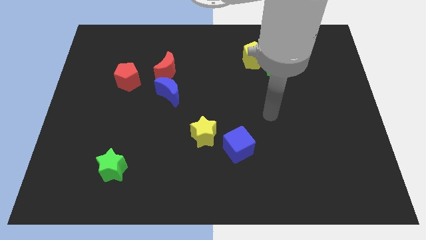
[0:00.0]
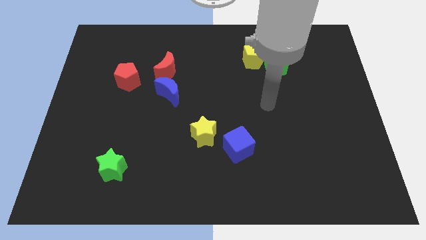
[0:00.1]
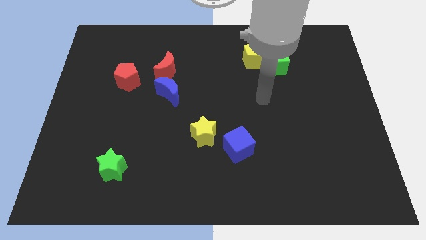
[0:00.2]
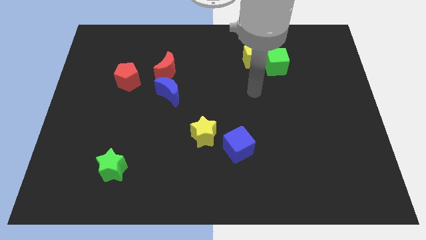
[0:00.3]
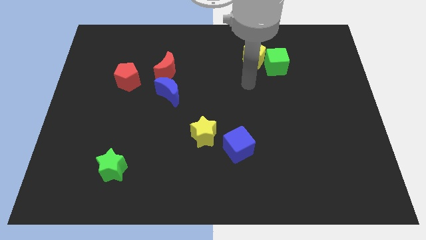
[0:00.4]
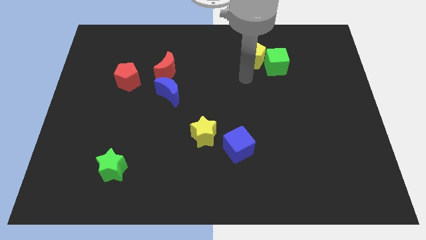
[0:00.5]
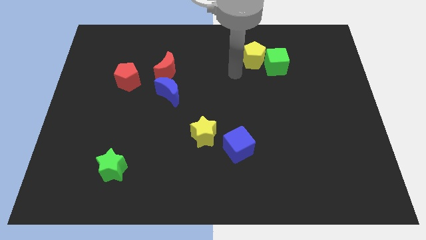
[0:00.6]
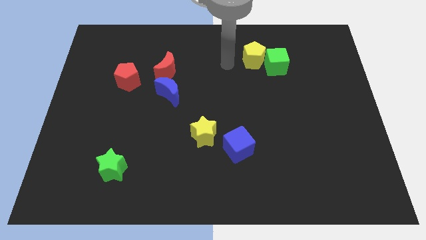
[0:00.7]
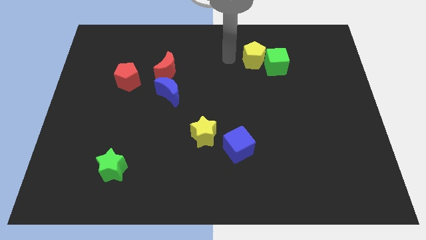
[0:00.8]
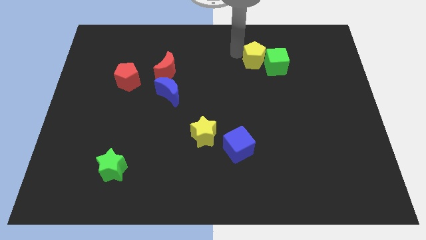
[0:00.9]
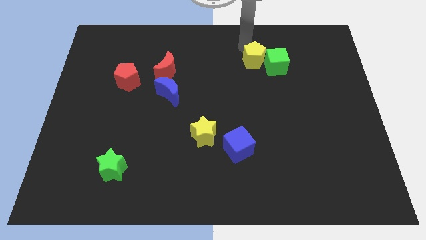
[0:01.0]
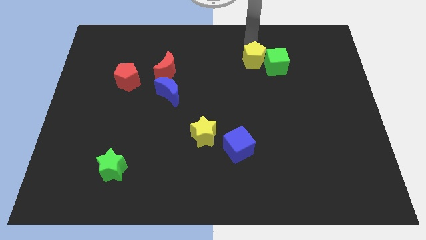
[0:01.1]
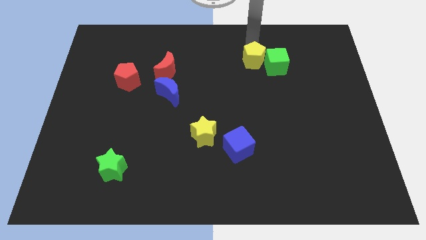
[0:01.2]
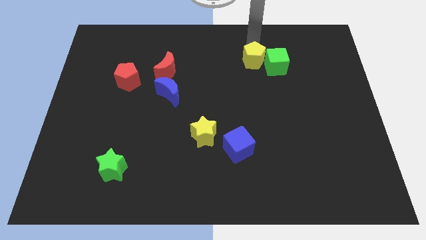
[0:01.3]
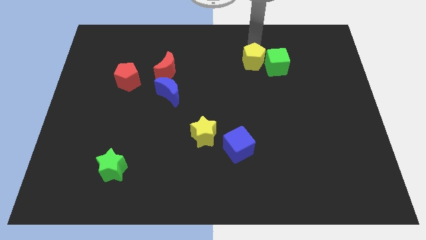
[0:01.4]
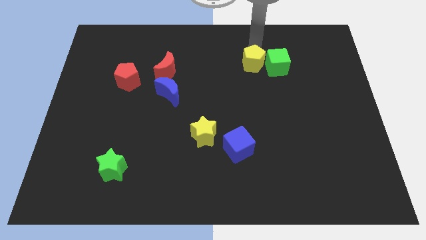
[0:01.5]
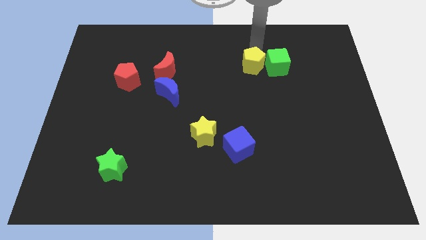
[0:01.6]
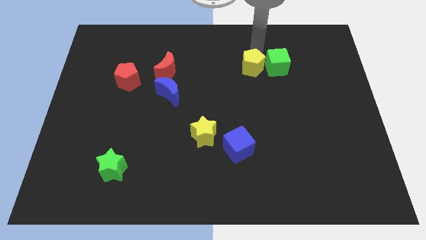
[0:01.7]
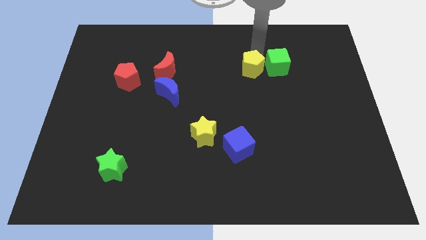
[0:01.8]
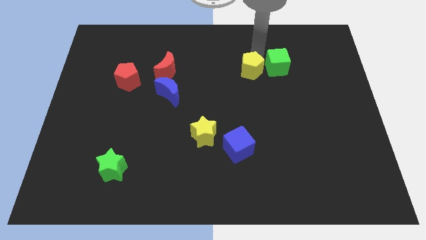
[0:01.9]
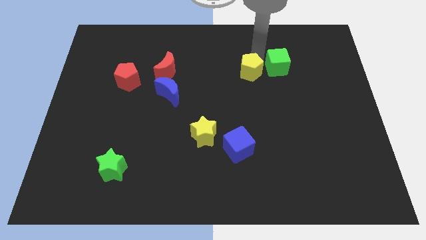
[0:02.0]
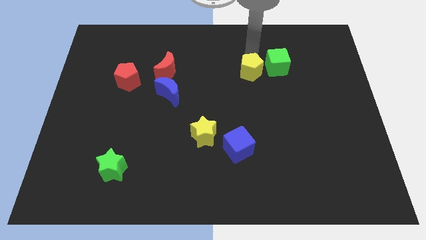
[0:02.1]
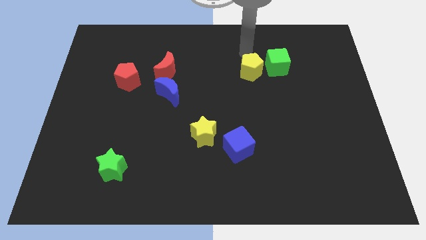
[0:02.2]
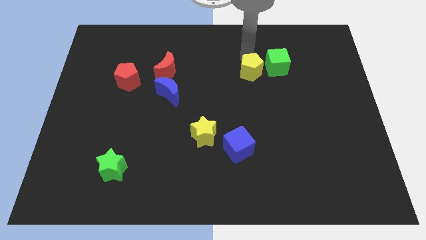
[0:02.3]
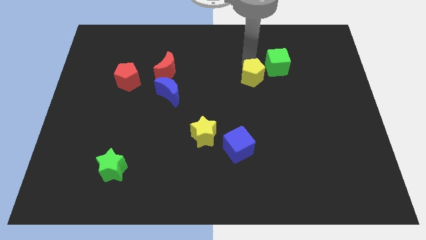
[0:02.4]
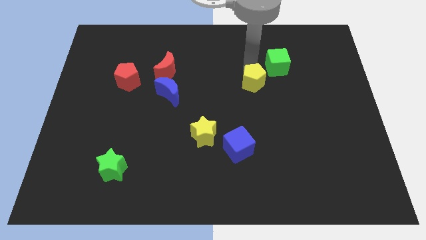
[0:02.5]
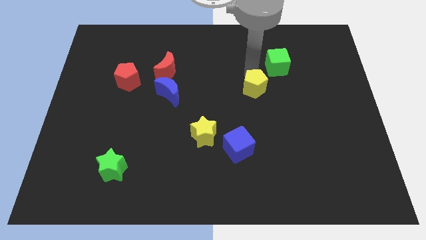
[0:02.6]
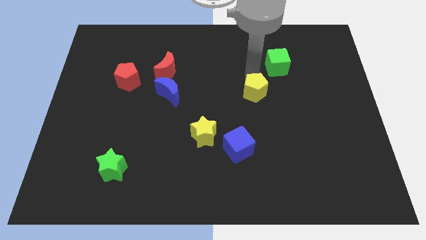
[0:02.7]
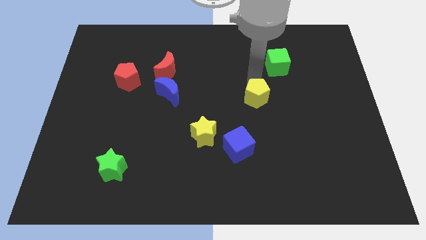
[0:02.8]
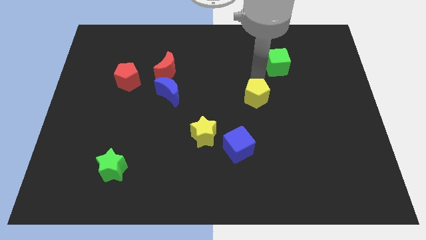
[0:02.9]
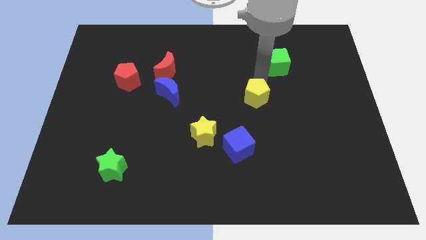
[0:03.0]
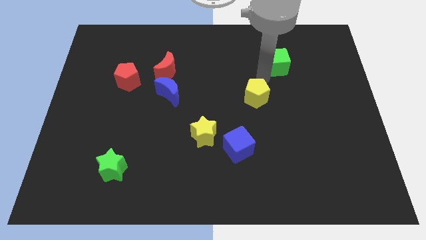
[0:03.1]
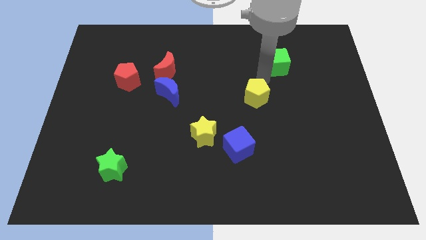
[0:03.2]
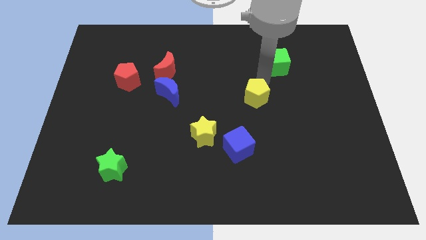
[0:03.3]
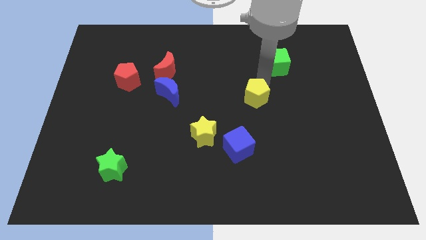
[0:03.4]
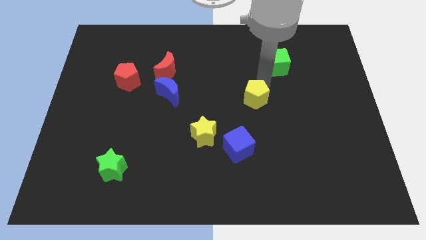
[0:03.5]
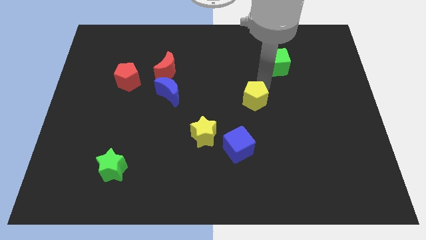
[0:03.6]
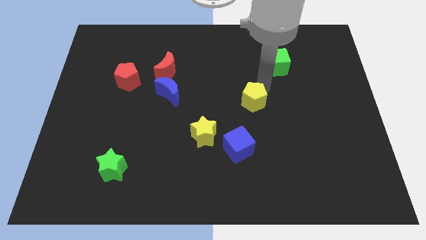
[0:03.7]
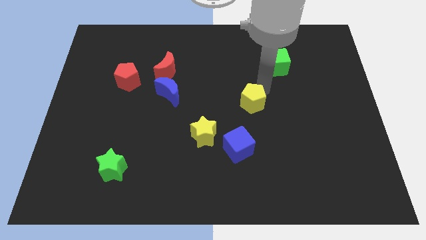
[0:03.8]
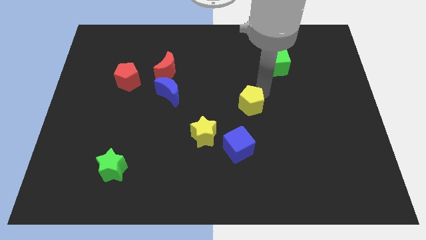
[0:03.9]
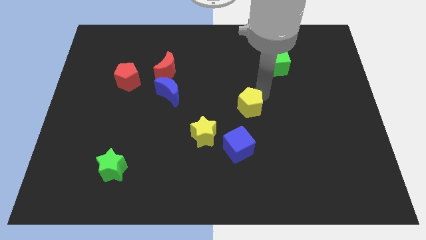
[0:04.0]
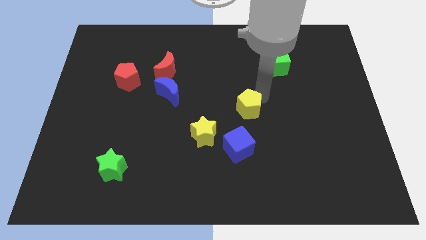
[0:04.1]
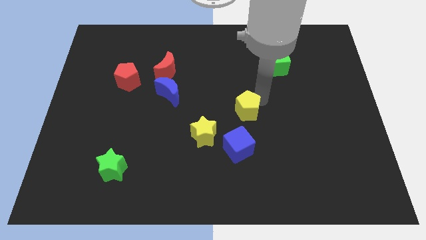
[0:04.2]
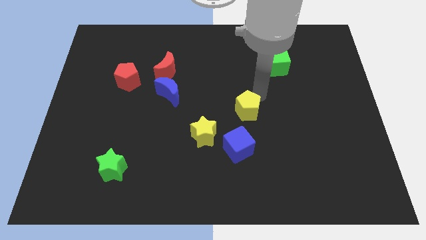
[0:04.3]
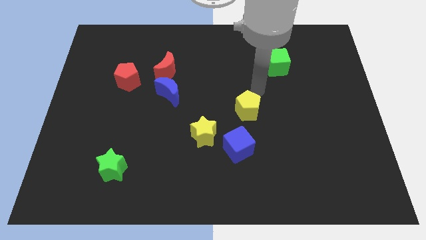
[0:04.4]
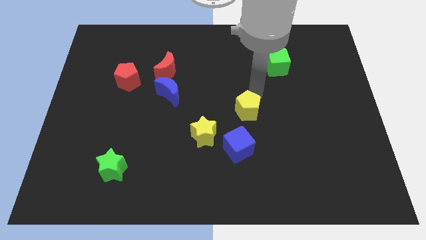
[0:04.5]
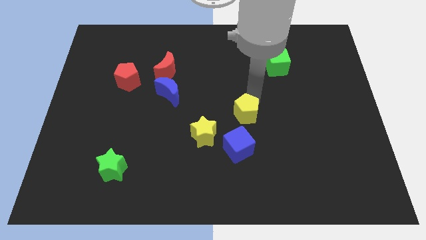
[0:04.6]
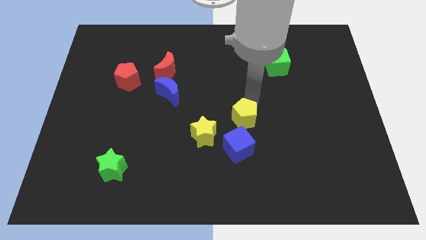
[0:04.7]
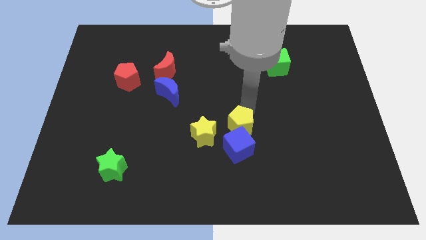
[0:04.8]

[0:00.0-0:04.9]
slide the yellow pentagon close to the blue cube

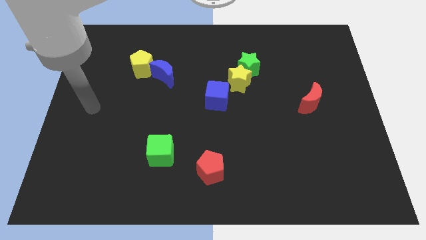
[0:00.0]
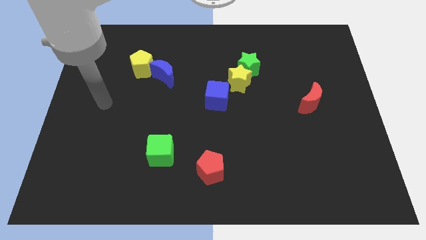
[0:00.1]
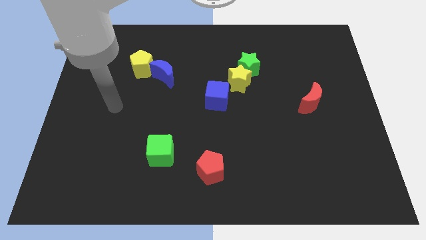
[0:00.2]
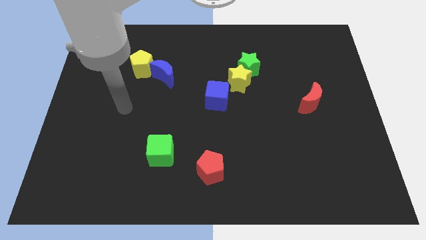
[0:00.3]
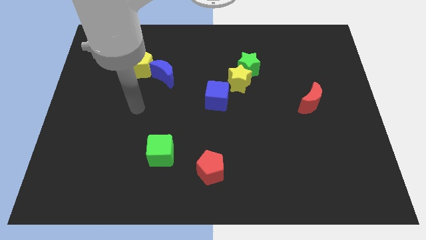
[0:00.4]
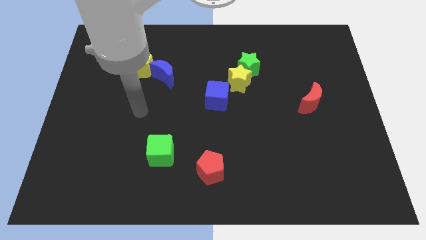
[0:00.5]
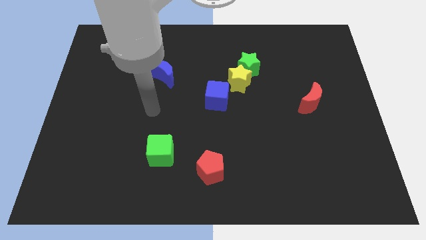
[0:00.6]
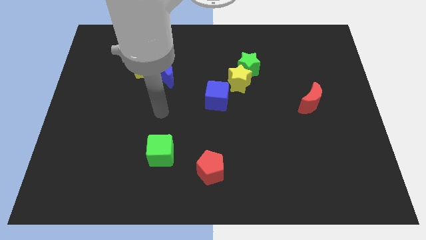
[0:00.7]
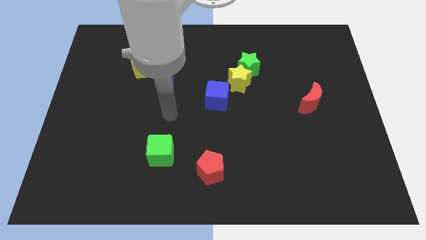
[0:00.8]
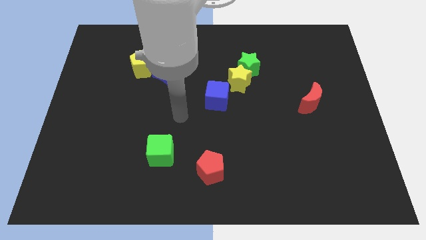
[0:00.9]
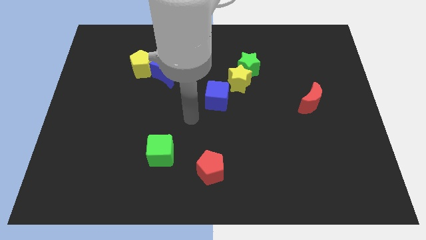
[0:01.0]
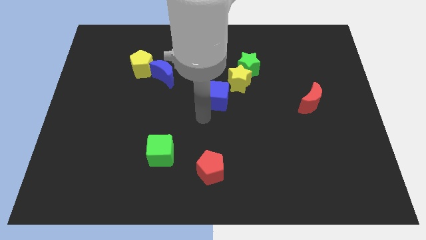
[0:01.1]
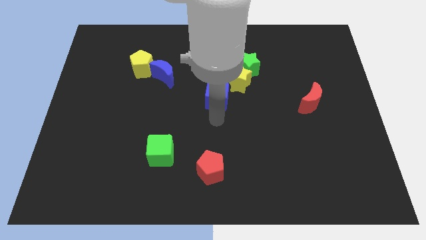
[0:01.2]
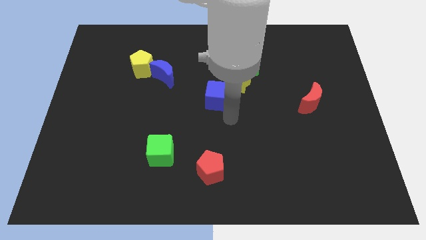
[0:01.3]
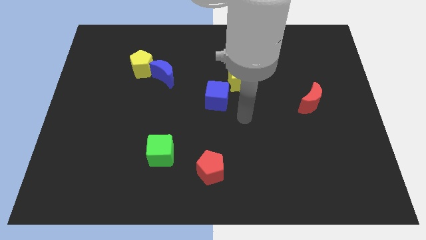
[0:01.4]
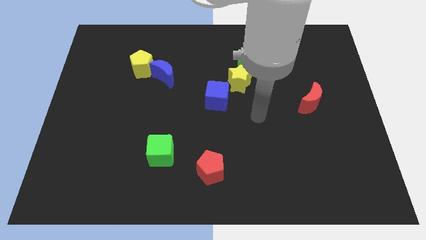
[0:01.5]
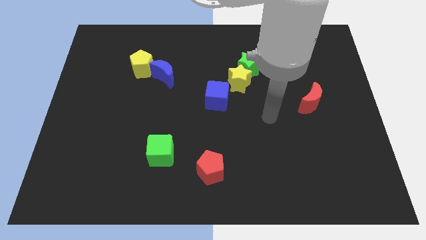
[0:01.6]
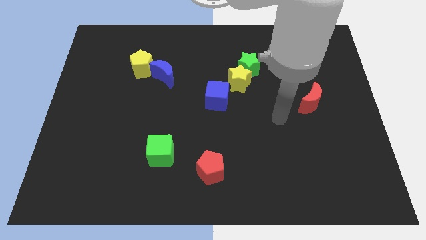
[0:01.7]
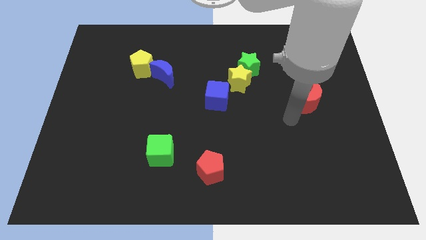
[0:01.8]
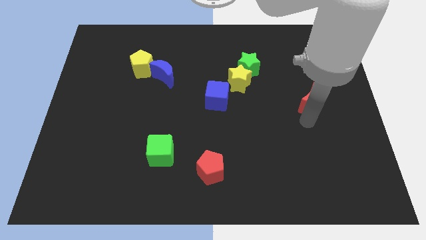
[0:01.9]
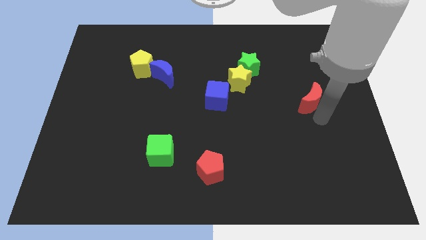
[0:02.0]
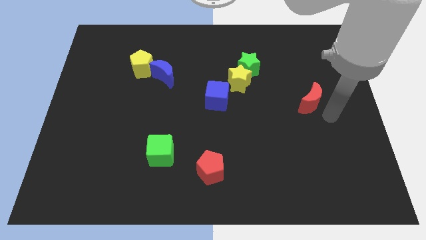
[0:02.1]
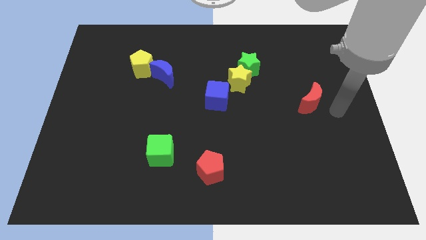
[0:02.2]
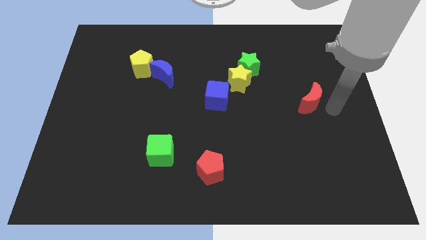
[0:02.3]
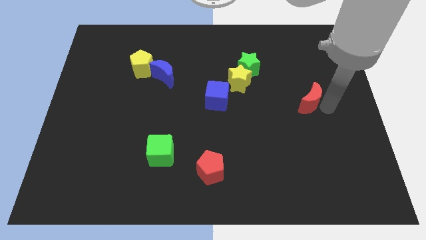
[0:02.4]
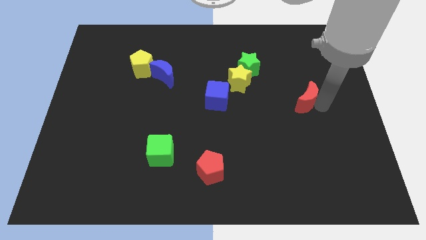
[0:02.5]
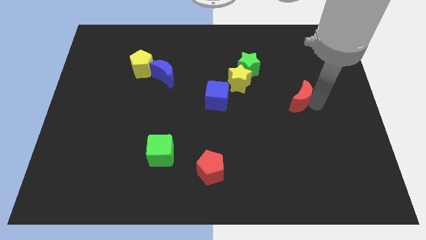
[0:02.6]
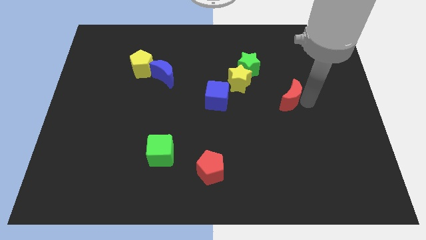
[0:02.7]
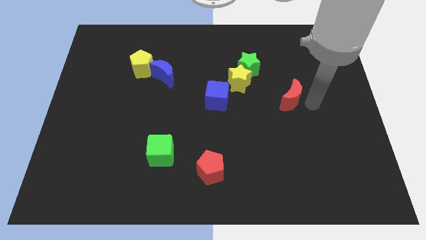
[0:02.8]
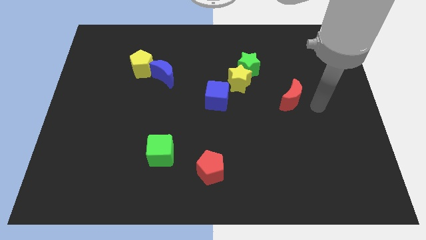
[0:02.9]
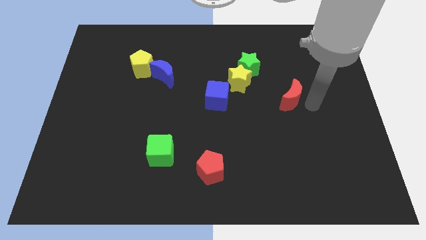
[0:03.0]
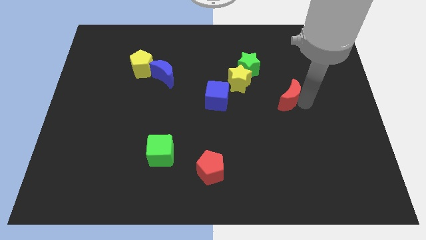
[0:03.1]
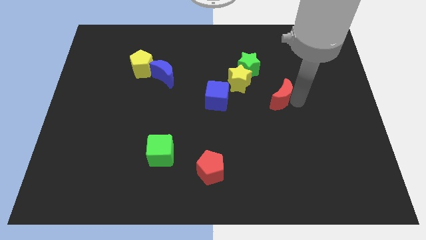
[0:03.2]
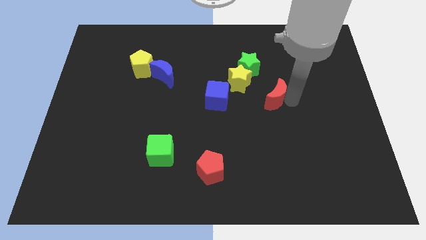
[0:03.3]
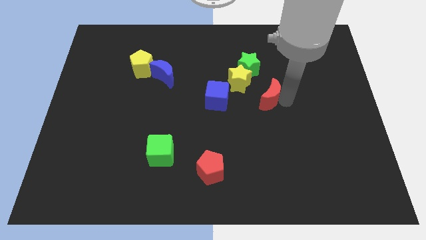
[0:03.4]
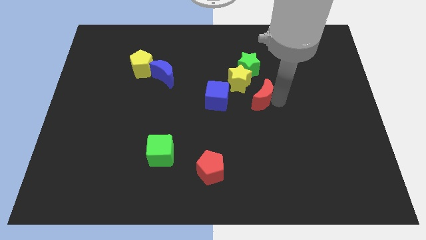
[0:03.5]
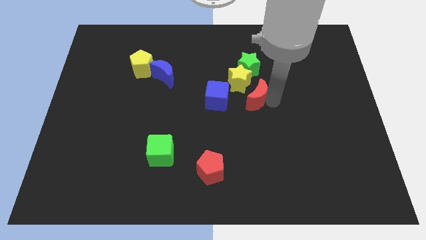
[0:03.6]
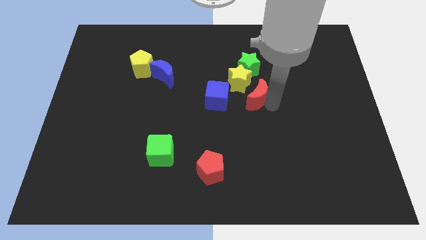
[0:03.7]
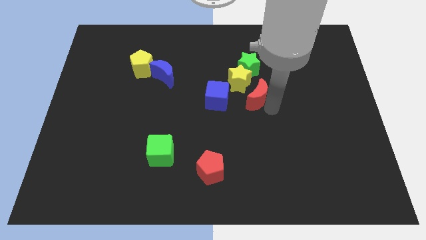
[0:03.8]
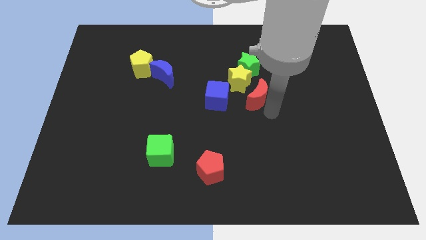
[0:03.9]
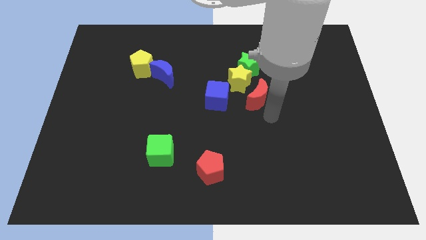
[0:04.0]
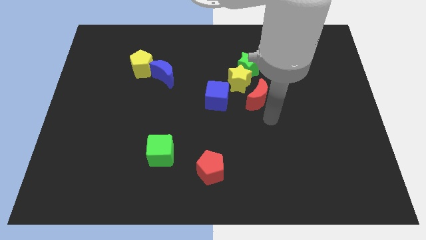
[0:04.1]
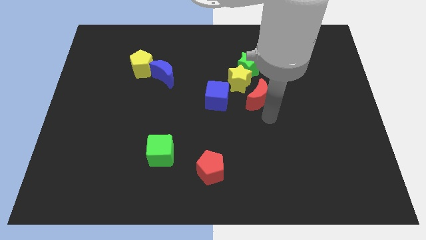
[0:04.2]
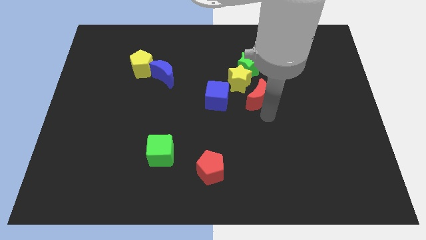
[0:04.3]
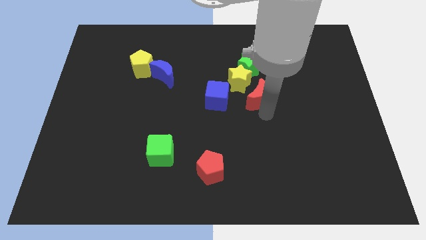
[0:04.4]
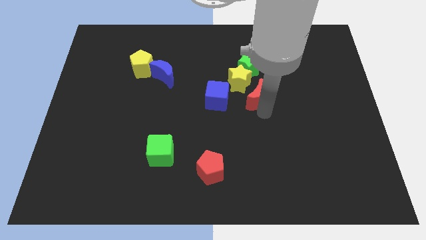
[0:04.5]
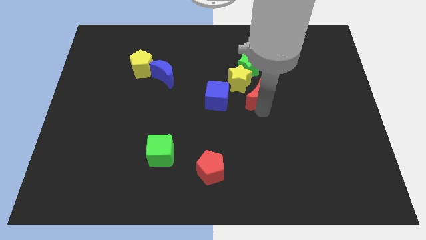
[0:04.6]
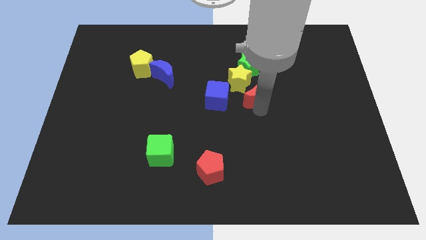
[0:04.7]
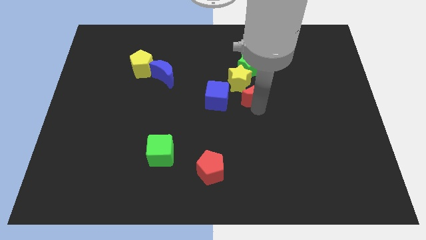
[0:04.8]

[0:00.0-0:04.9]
put the red moon close to the yellow star
